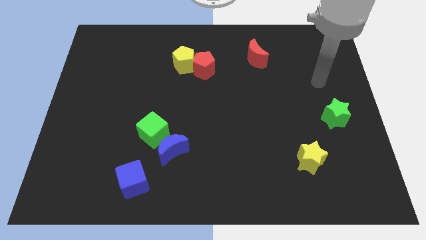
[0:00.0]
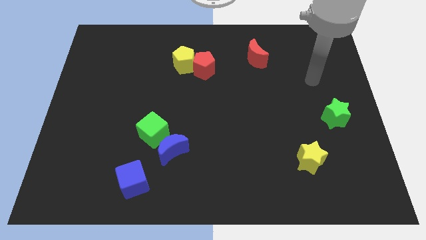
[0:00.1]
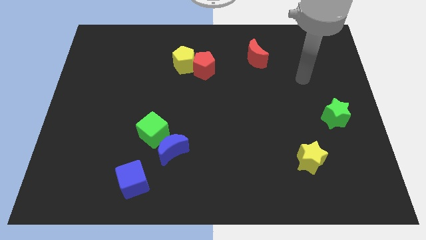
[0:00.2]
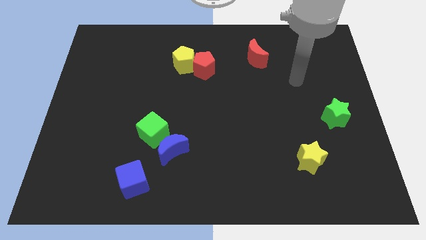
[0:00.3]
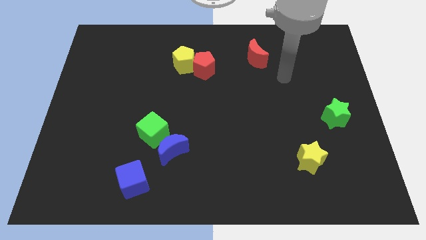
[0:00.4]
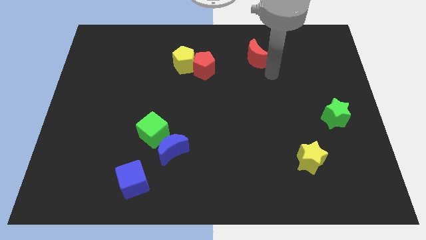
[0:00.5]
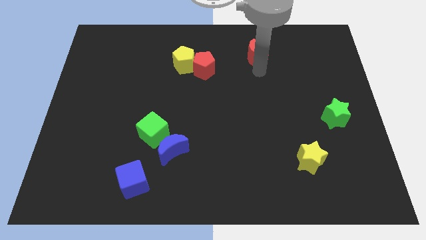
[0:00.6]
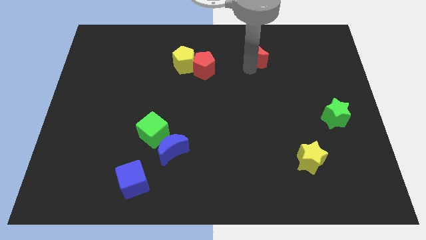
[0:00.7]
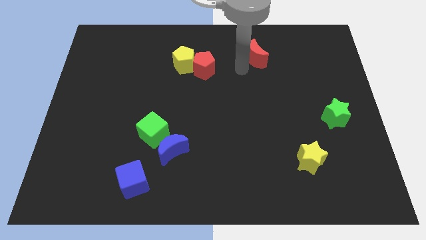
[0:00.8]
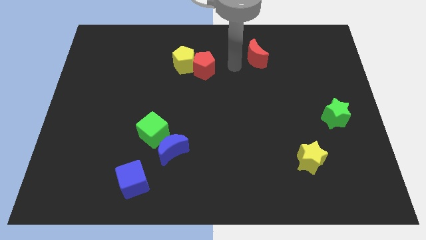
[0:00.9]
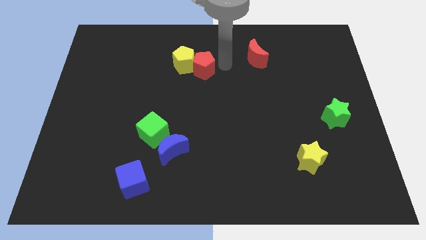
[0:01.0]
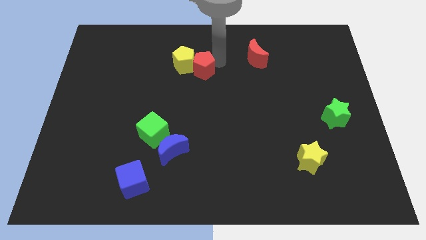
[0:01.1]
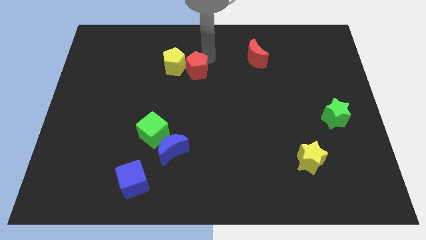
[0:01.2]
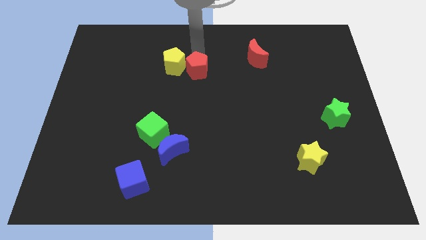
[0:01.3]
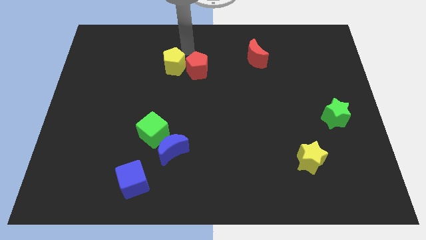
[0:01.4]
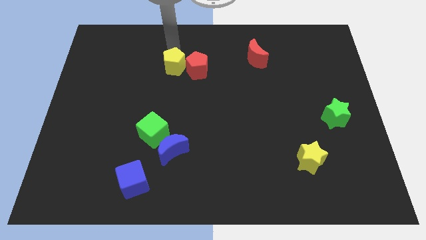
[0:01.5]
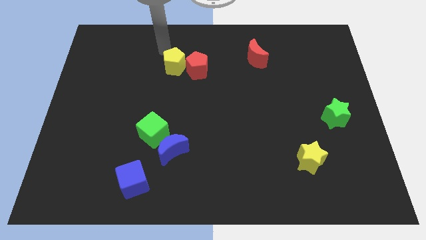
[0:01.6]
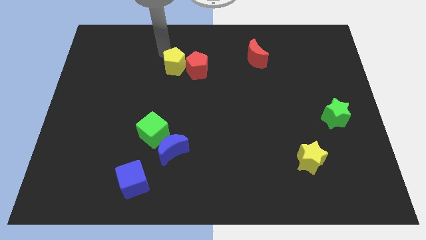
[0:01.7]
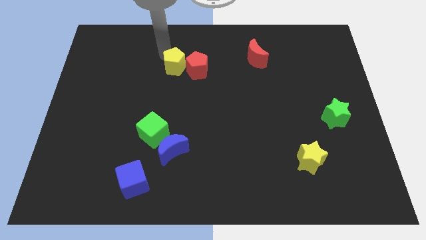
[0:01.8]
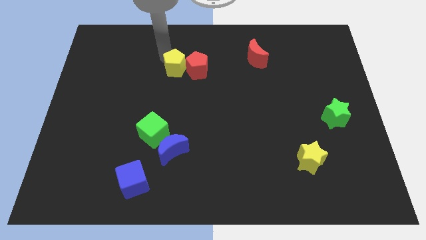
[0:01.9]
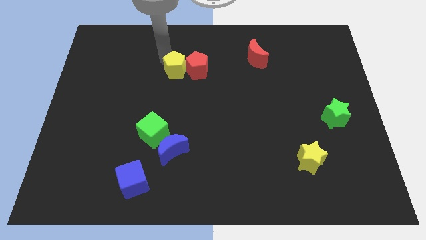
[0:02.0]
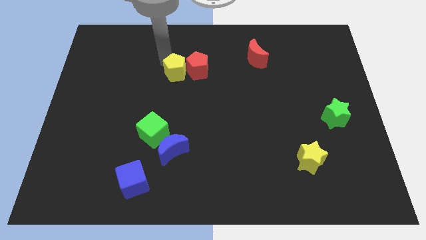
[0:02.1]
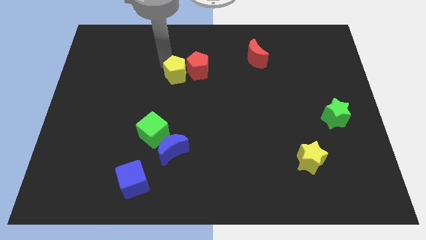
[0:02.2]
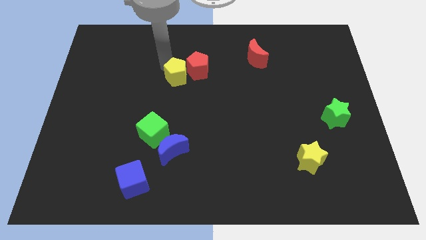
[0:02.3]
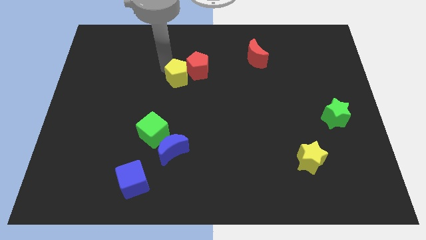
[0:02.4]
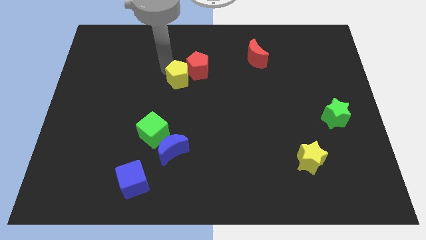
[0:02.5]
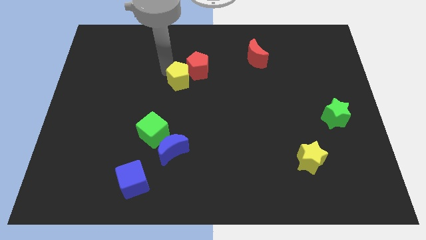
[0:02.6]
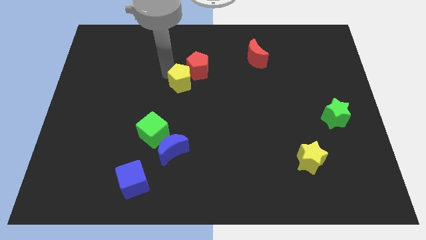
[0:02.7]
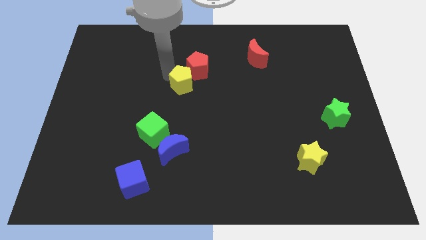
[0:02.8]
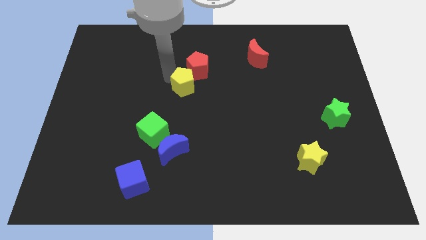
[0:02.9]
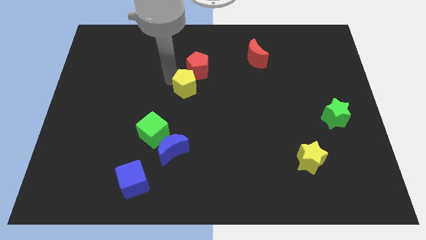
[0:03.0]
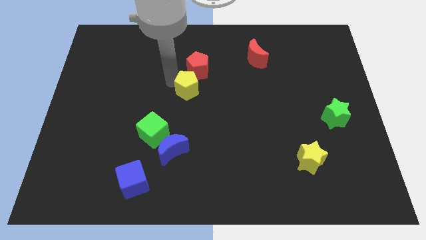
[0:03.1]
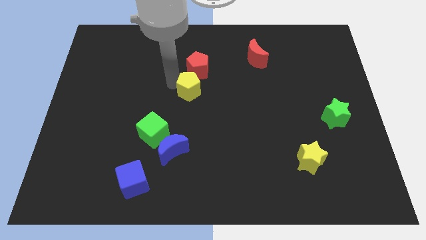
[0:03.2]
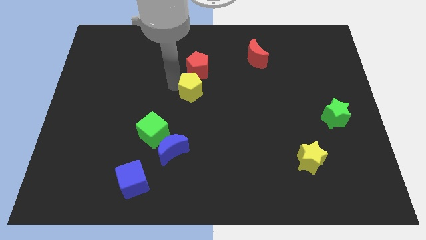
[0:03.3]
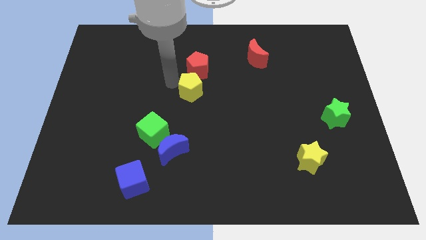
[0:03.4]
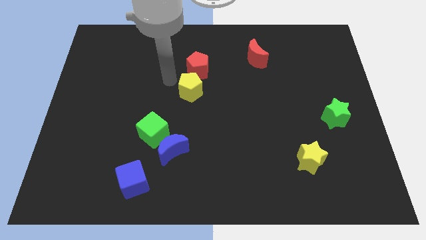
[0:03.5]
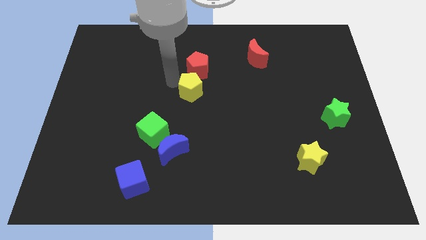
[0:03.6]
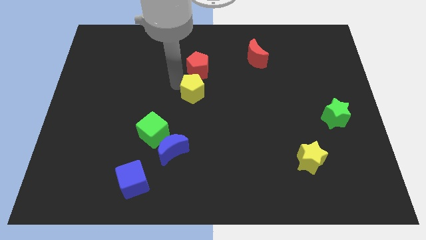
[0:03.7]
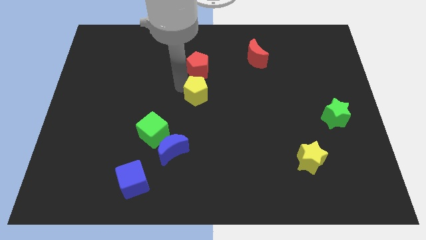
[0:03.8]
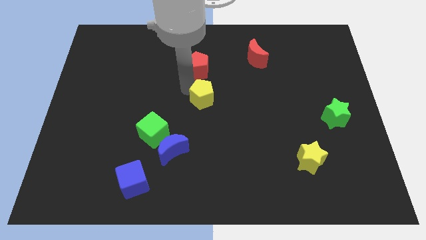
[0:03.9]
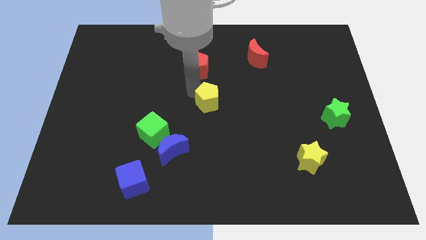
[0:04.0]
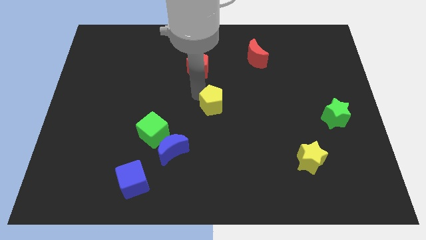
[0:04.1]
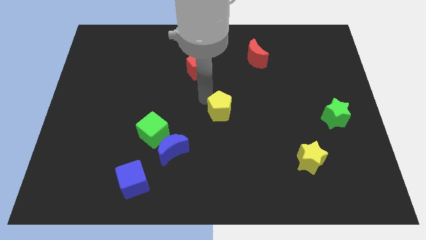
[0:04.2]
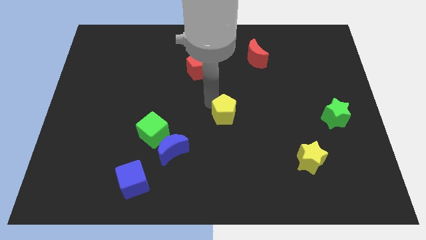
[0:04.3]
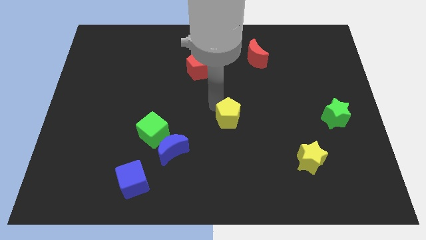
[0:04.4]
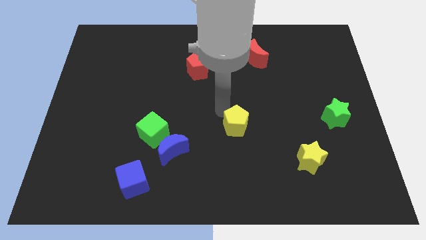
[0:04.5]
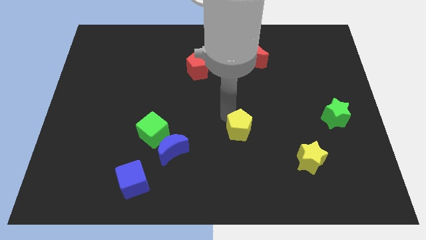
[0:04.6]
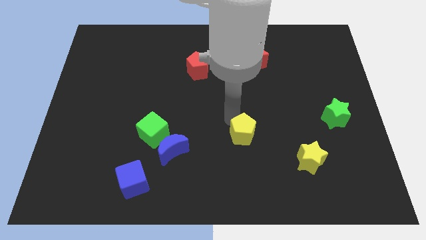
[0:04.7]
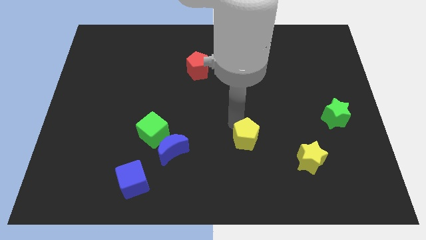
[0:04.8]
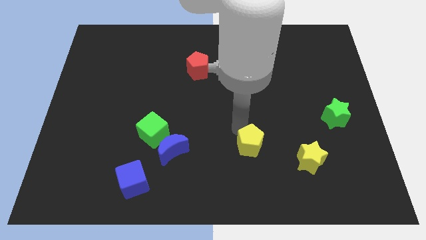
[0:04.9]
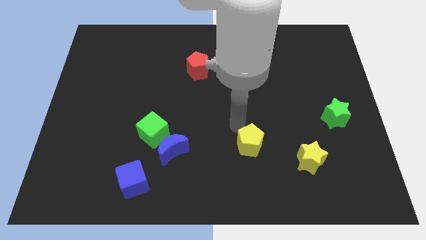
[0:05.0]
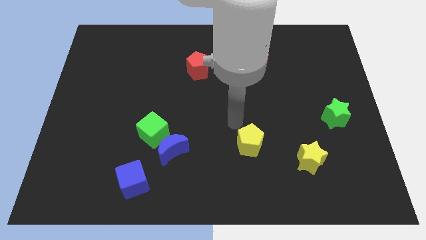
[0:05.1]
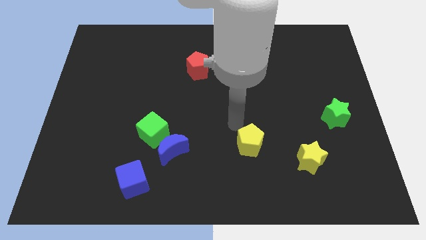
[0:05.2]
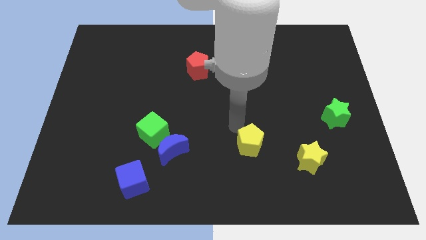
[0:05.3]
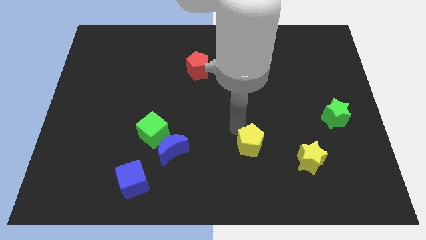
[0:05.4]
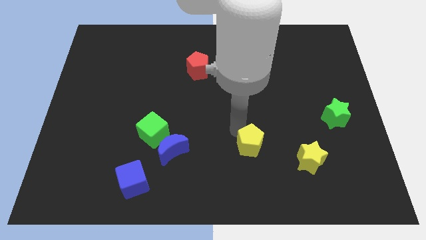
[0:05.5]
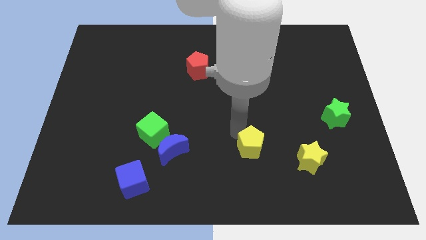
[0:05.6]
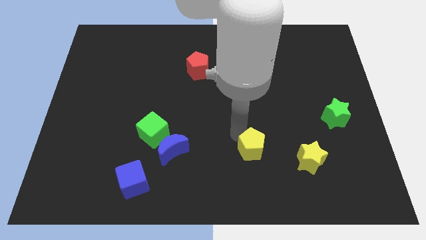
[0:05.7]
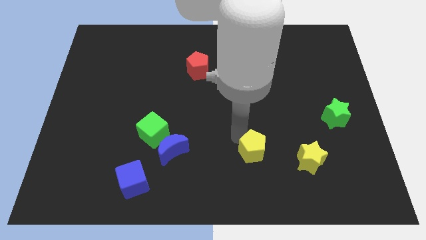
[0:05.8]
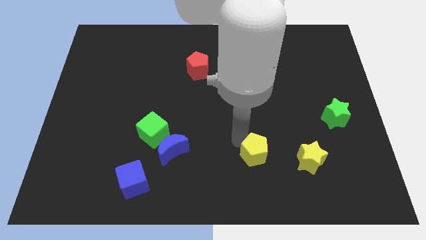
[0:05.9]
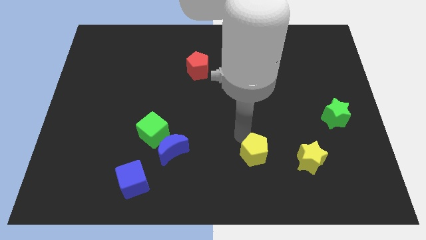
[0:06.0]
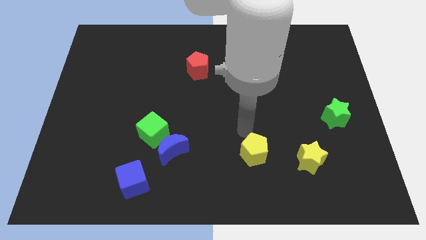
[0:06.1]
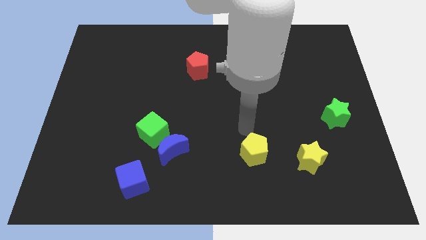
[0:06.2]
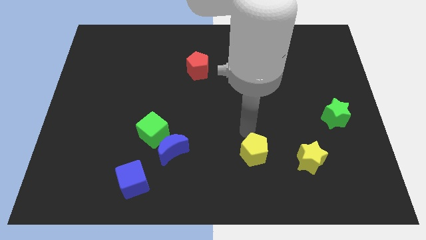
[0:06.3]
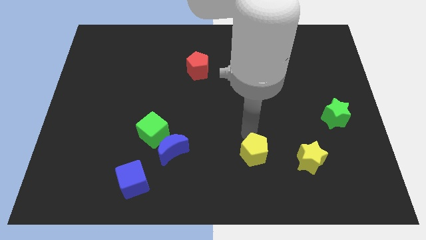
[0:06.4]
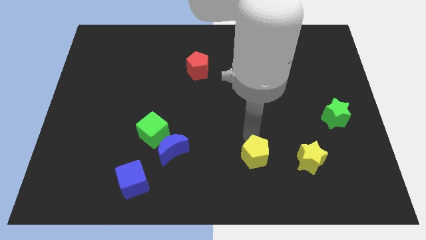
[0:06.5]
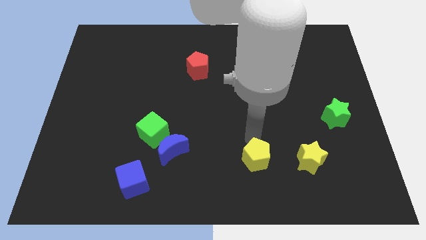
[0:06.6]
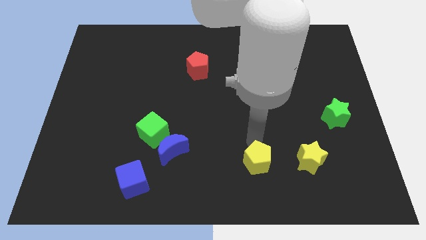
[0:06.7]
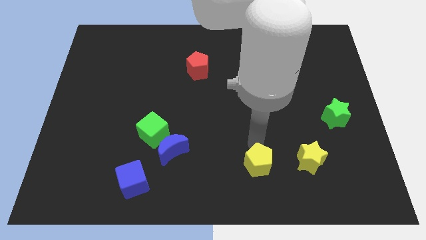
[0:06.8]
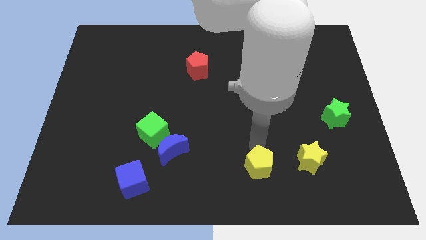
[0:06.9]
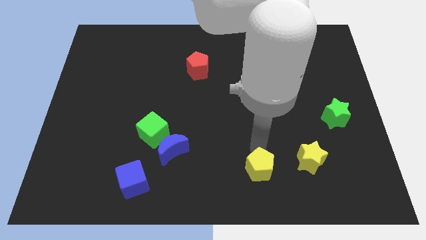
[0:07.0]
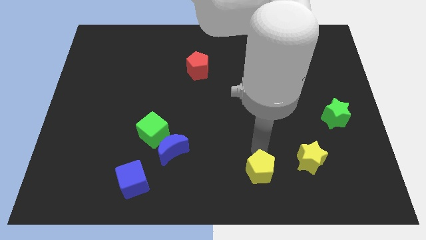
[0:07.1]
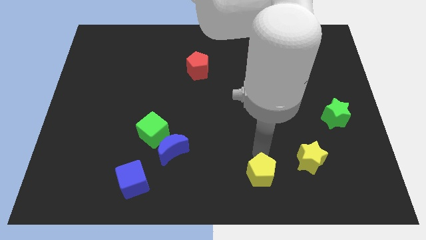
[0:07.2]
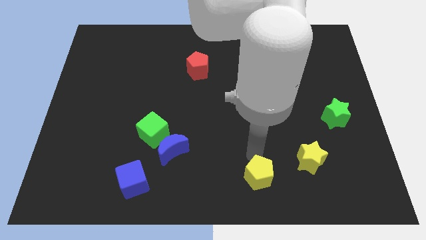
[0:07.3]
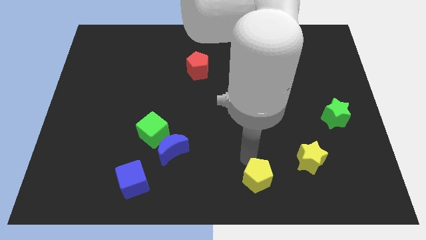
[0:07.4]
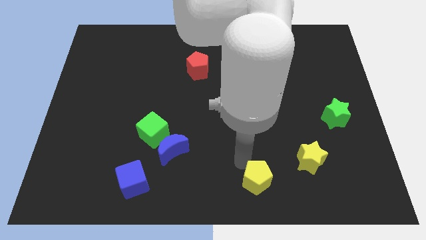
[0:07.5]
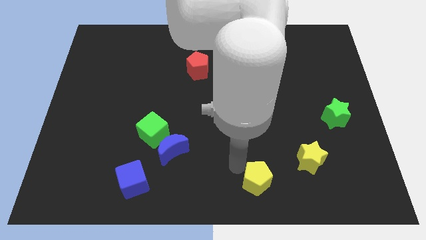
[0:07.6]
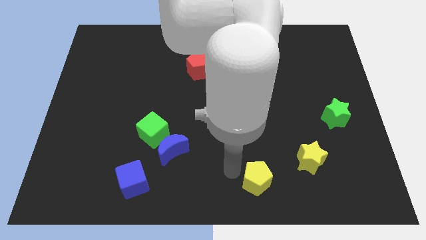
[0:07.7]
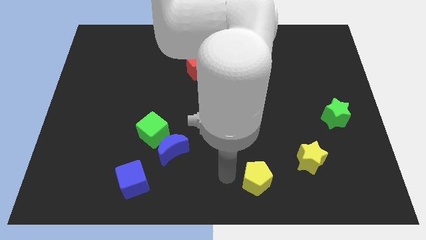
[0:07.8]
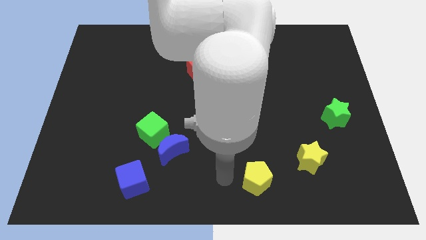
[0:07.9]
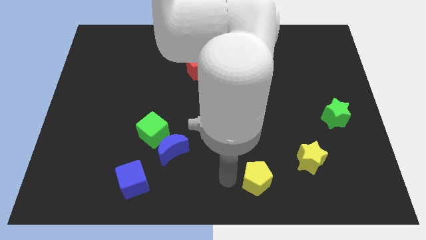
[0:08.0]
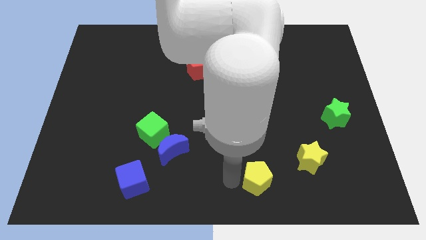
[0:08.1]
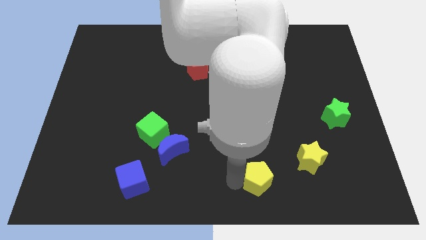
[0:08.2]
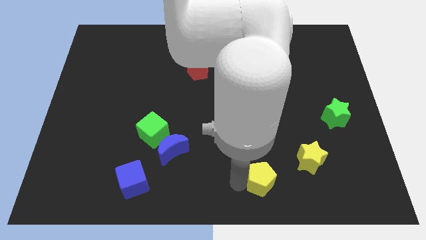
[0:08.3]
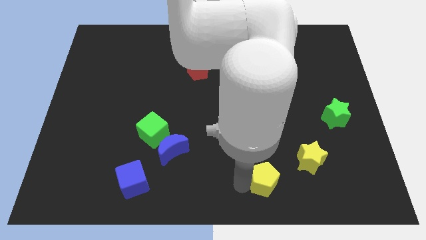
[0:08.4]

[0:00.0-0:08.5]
push the yellow pentagon to the bottom left side of the yellow star
